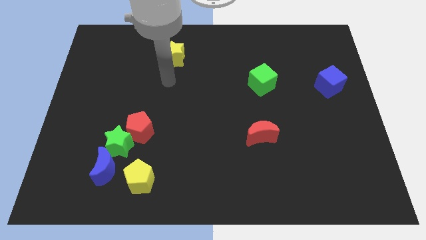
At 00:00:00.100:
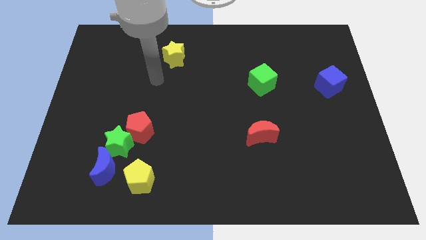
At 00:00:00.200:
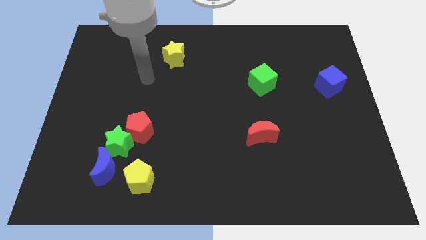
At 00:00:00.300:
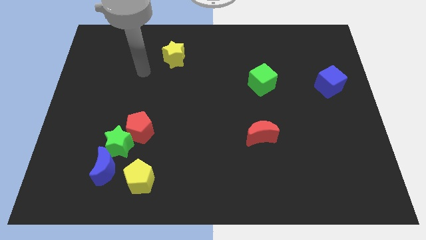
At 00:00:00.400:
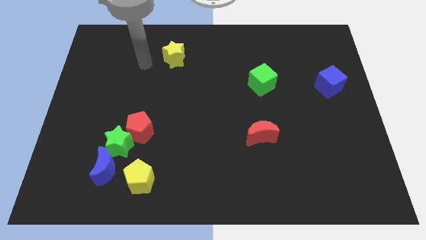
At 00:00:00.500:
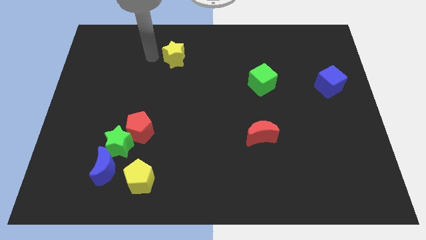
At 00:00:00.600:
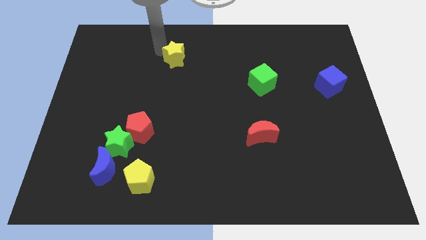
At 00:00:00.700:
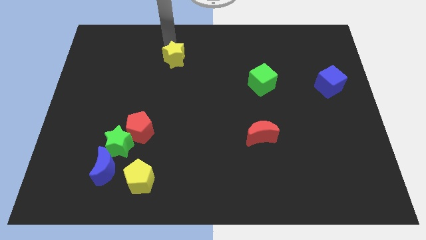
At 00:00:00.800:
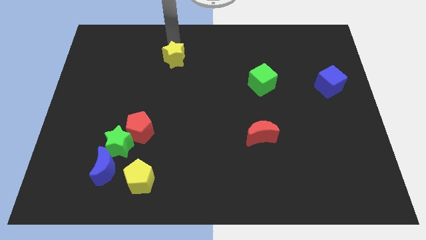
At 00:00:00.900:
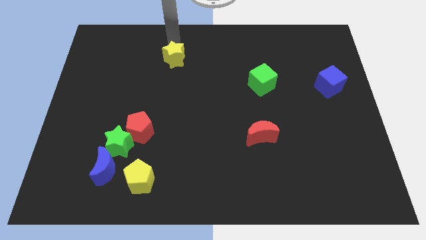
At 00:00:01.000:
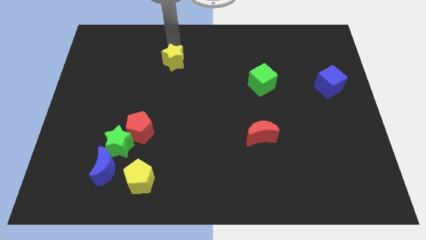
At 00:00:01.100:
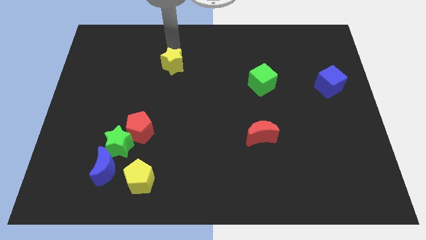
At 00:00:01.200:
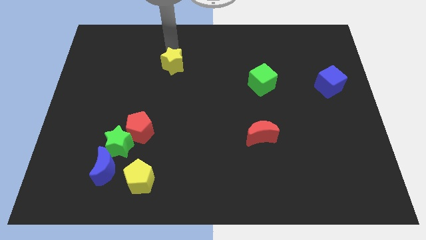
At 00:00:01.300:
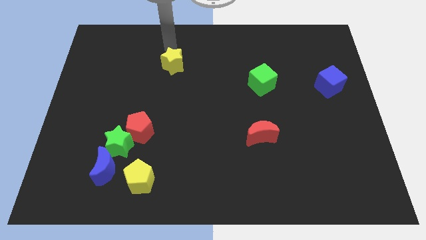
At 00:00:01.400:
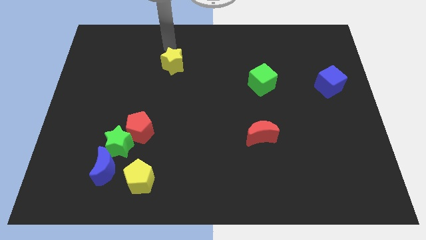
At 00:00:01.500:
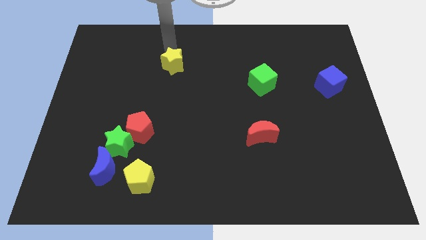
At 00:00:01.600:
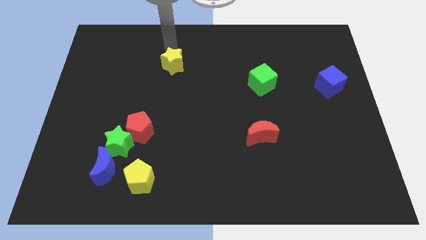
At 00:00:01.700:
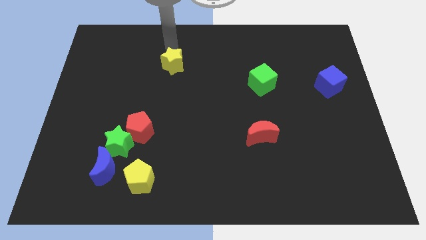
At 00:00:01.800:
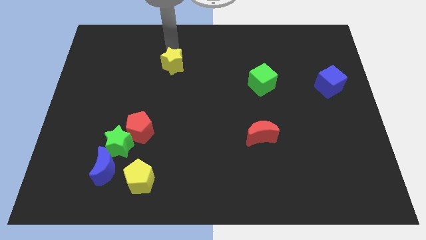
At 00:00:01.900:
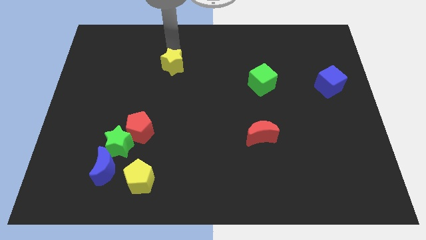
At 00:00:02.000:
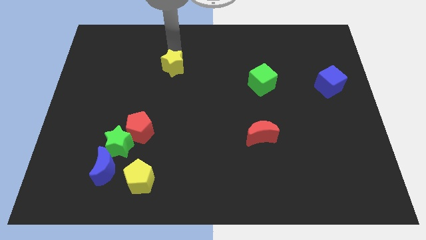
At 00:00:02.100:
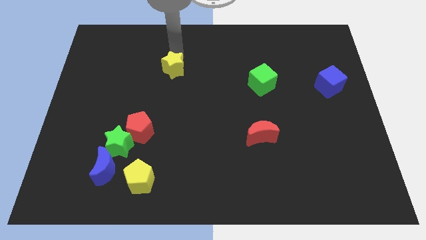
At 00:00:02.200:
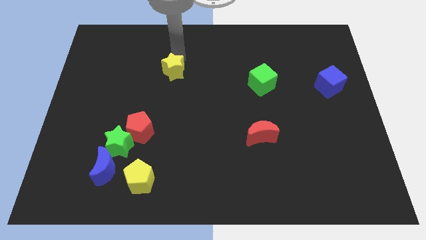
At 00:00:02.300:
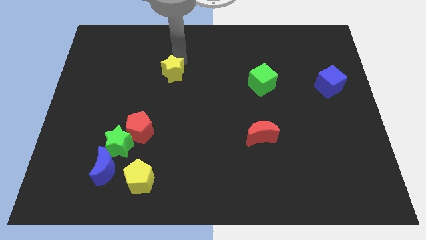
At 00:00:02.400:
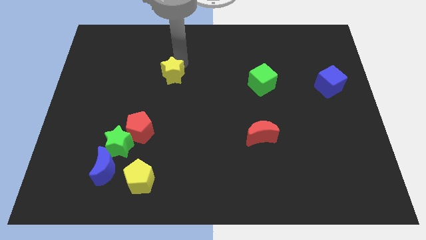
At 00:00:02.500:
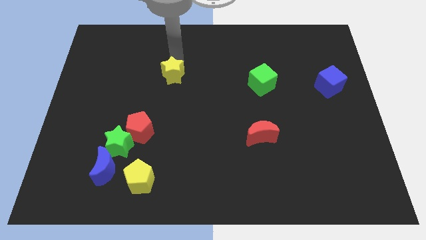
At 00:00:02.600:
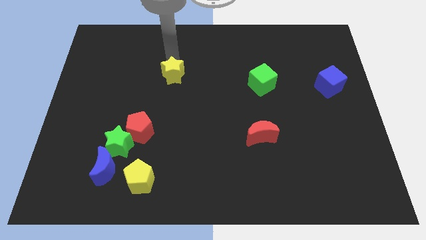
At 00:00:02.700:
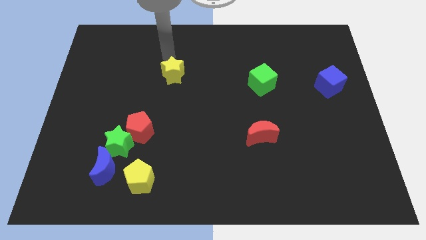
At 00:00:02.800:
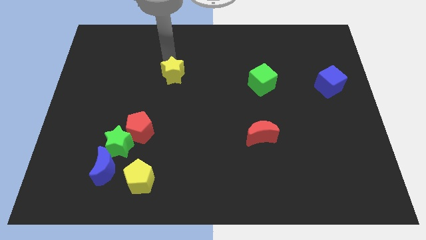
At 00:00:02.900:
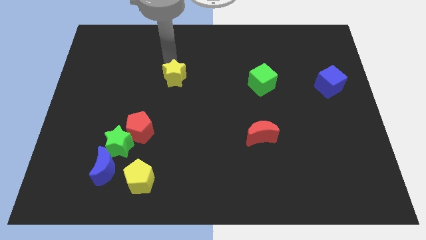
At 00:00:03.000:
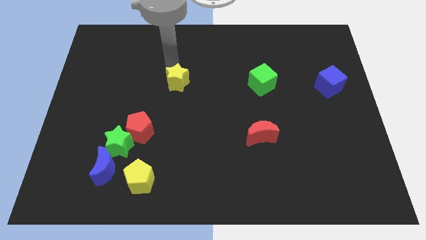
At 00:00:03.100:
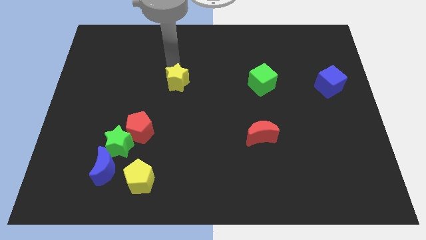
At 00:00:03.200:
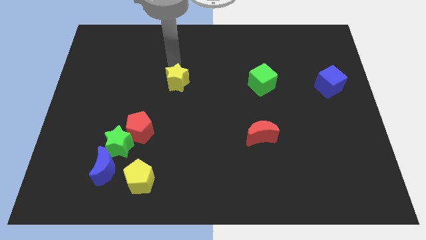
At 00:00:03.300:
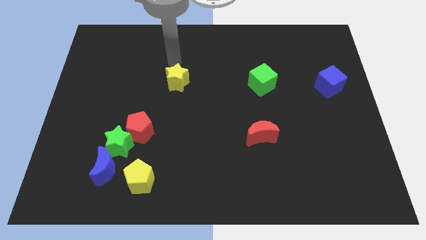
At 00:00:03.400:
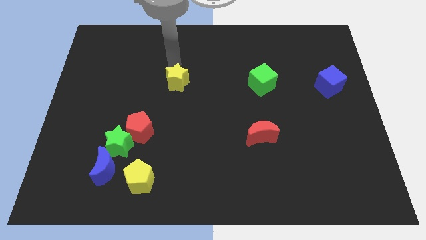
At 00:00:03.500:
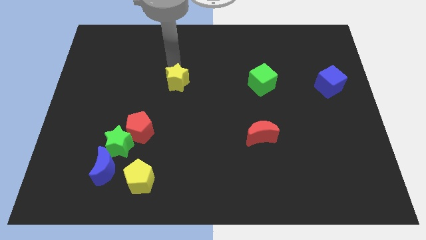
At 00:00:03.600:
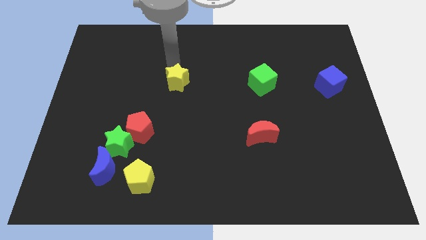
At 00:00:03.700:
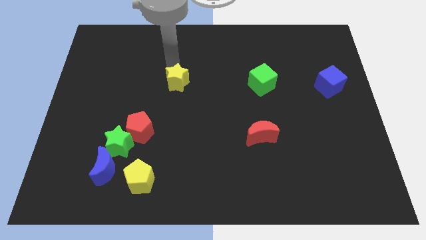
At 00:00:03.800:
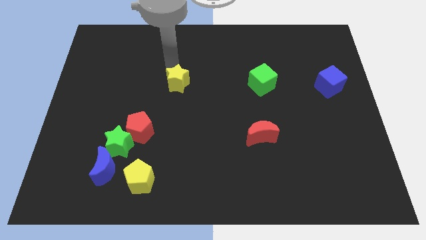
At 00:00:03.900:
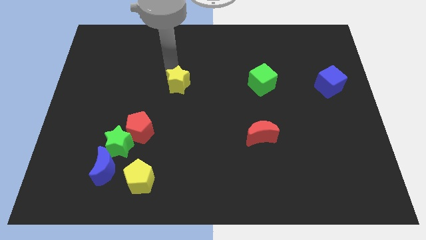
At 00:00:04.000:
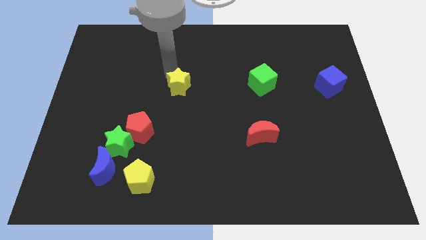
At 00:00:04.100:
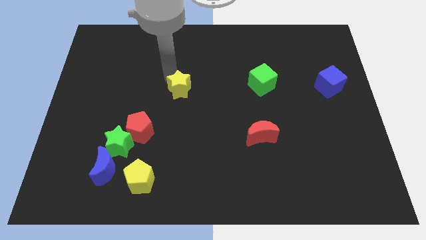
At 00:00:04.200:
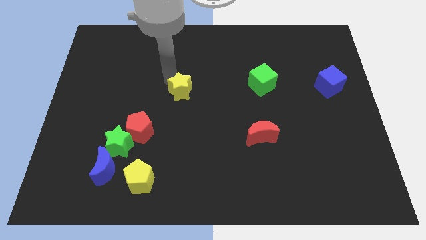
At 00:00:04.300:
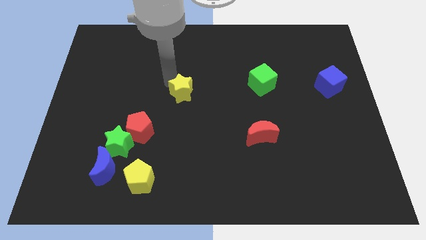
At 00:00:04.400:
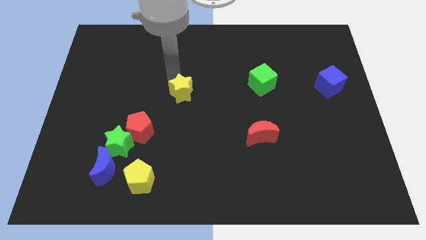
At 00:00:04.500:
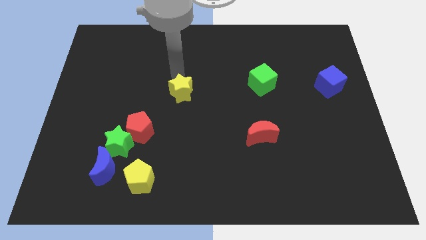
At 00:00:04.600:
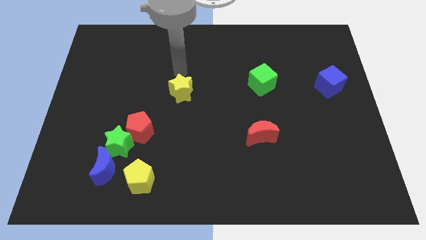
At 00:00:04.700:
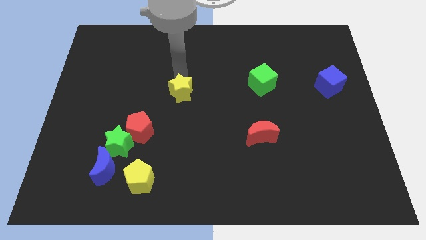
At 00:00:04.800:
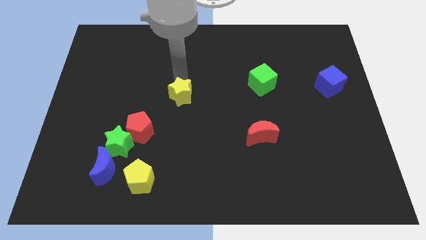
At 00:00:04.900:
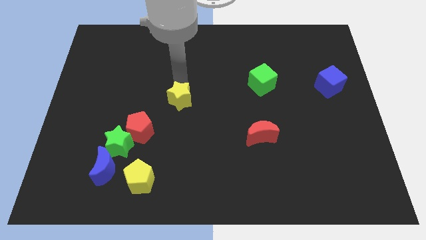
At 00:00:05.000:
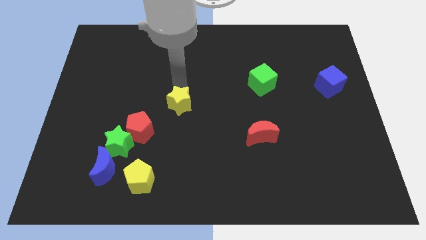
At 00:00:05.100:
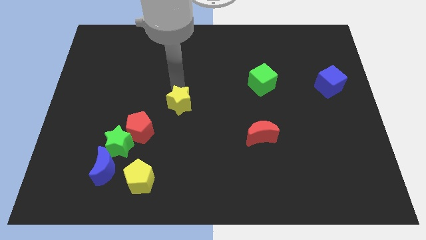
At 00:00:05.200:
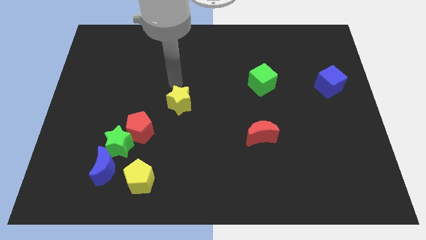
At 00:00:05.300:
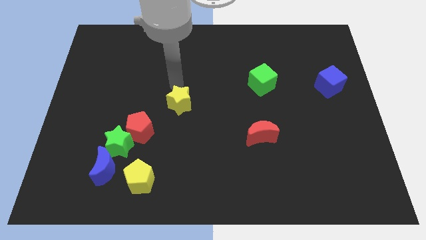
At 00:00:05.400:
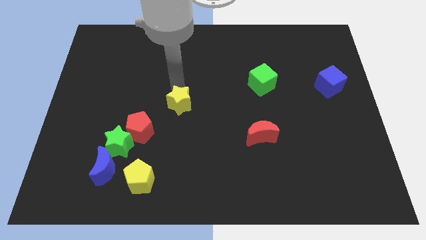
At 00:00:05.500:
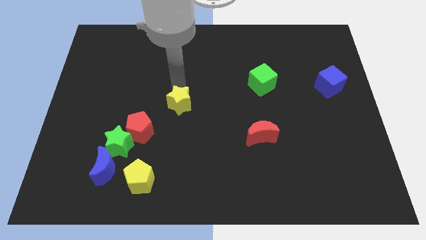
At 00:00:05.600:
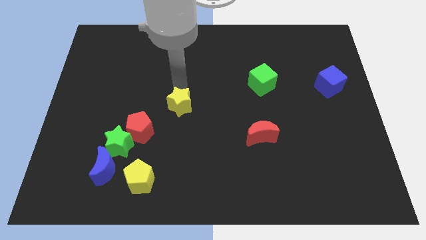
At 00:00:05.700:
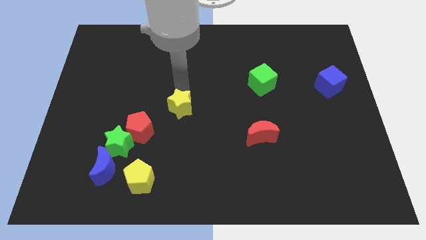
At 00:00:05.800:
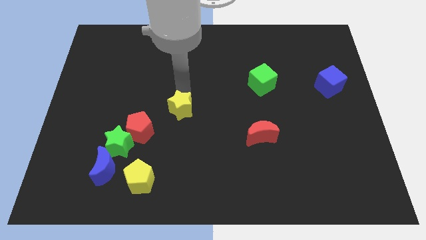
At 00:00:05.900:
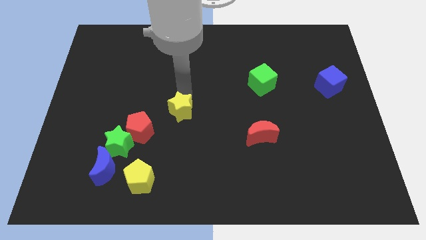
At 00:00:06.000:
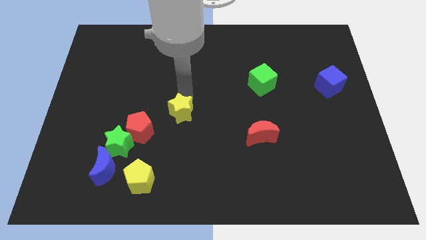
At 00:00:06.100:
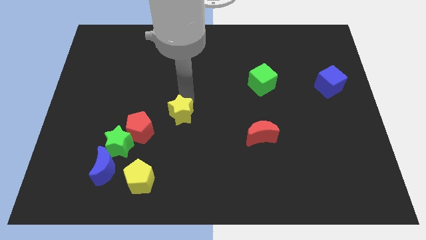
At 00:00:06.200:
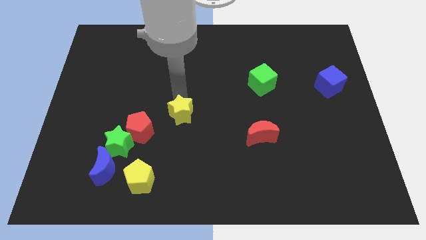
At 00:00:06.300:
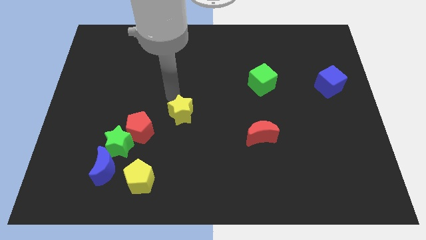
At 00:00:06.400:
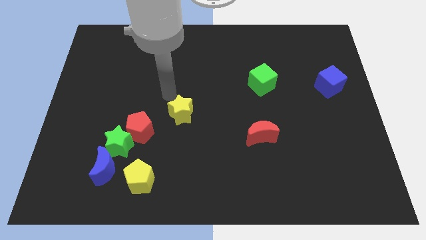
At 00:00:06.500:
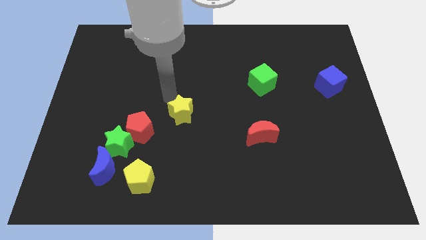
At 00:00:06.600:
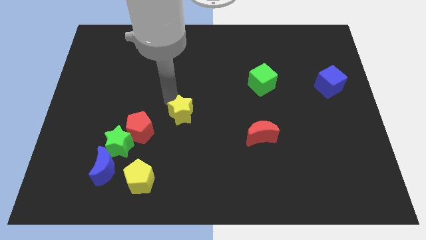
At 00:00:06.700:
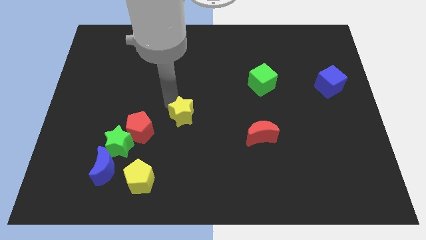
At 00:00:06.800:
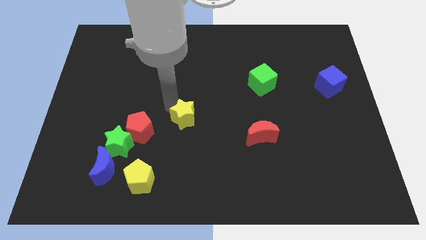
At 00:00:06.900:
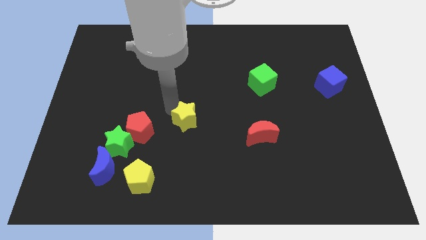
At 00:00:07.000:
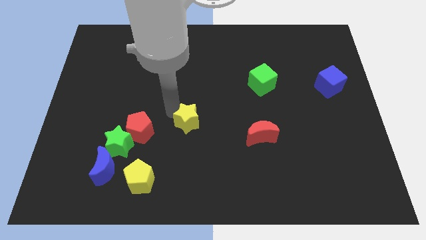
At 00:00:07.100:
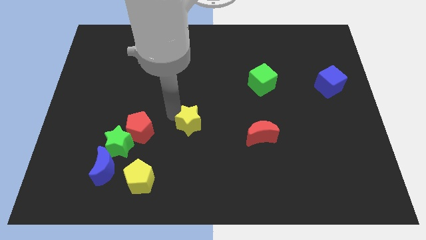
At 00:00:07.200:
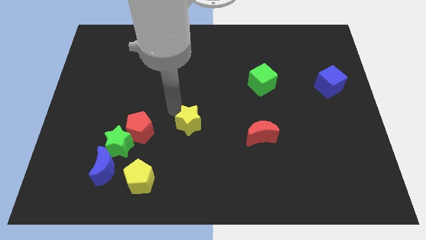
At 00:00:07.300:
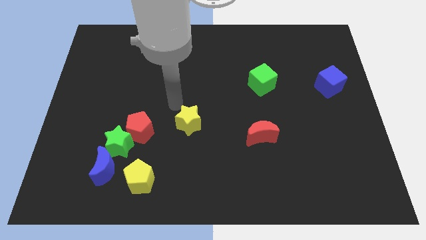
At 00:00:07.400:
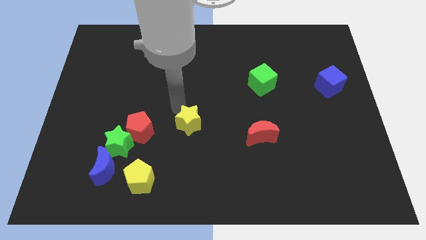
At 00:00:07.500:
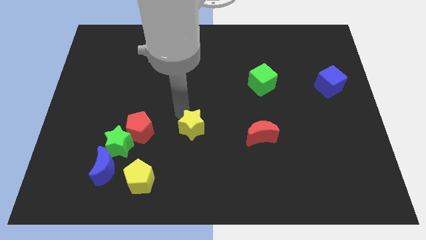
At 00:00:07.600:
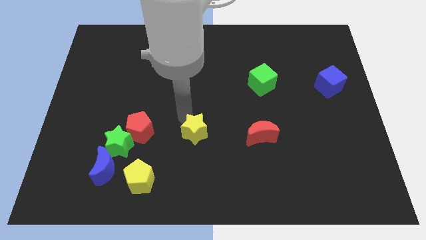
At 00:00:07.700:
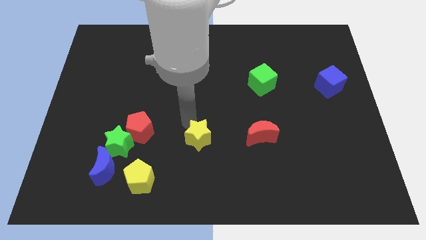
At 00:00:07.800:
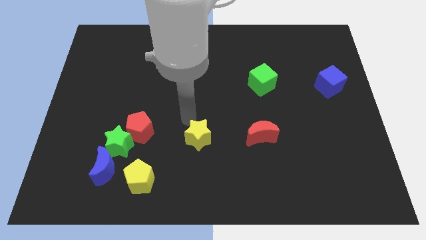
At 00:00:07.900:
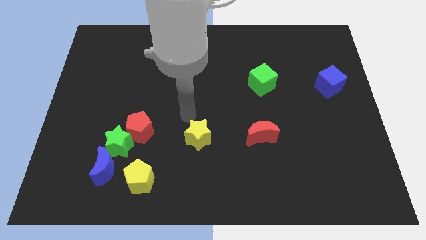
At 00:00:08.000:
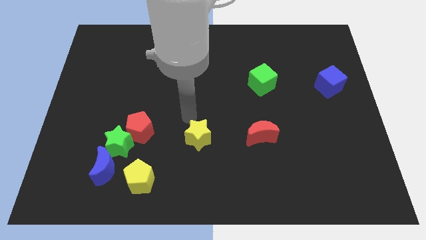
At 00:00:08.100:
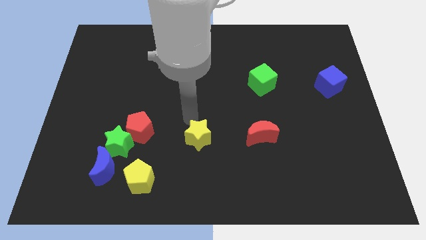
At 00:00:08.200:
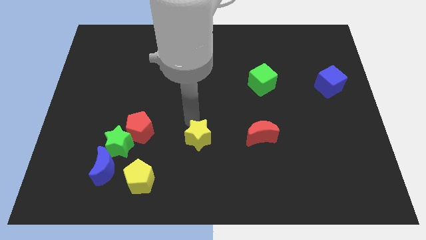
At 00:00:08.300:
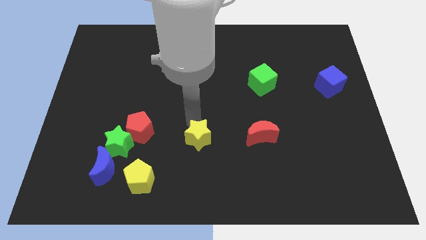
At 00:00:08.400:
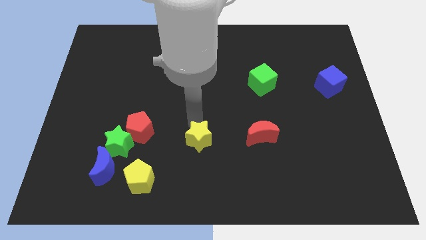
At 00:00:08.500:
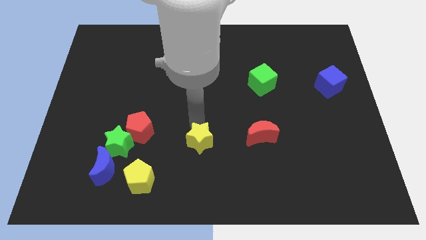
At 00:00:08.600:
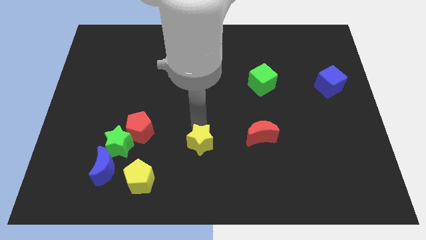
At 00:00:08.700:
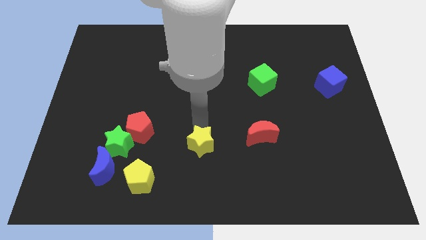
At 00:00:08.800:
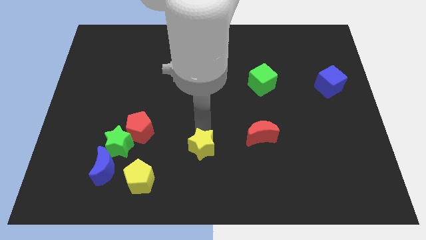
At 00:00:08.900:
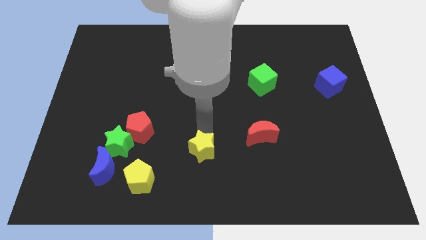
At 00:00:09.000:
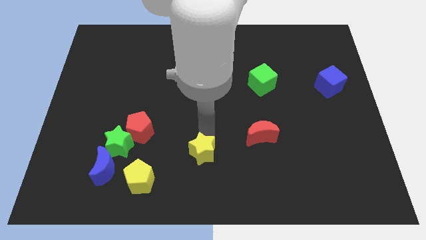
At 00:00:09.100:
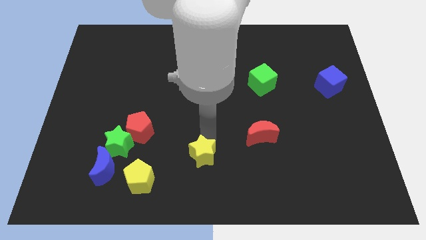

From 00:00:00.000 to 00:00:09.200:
push the yellow star to the bottom side
